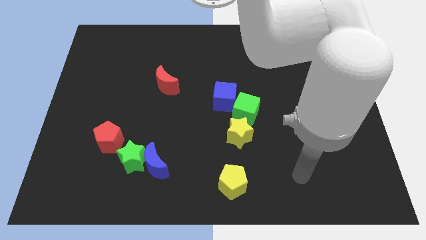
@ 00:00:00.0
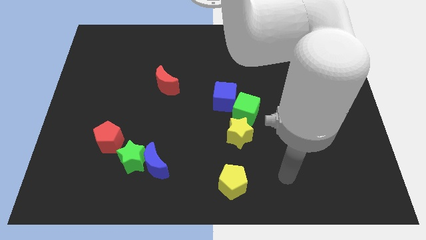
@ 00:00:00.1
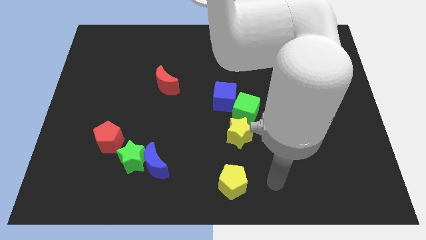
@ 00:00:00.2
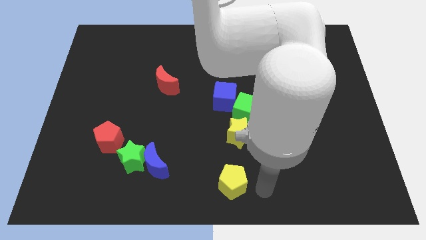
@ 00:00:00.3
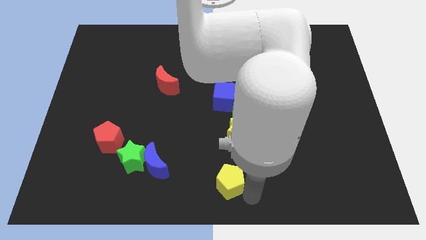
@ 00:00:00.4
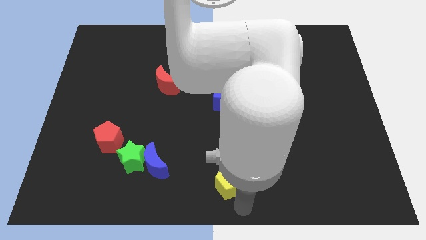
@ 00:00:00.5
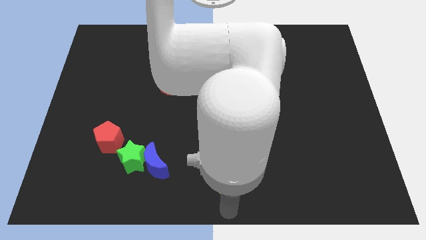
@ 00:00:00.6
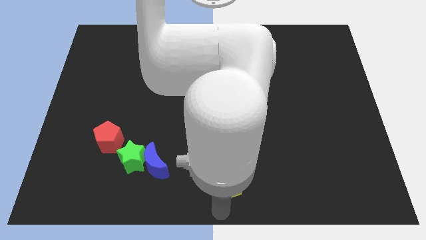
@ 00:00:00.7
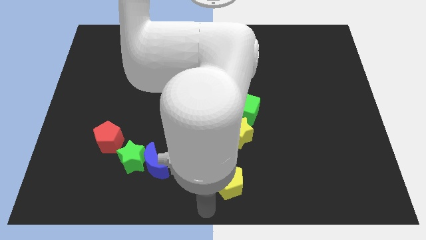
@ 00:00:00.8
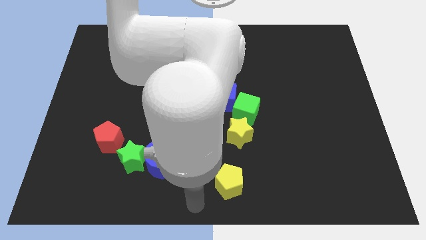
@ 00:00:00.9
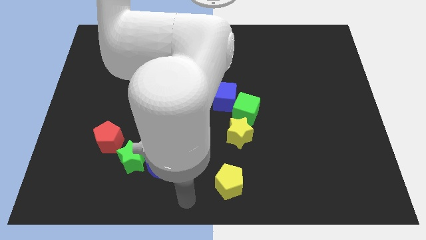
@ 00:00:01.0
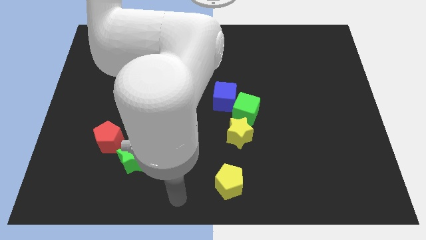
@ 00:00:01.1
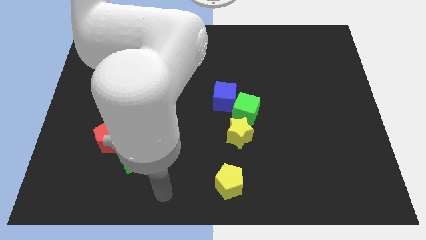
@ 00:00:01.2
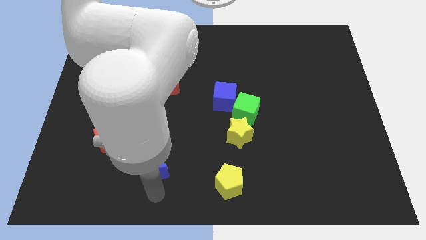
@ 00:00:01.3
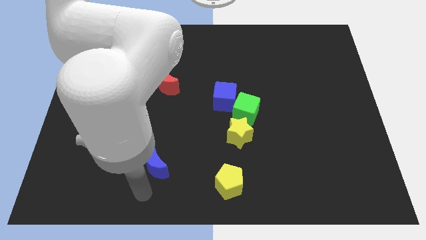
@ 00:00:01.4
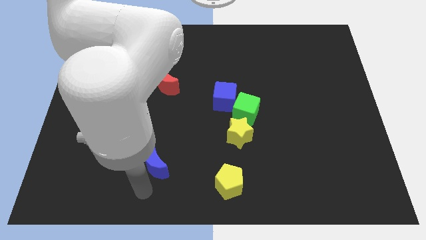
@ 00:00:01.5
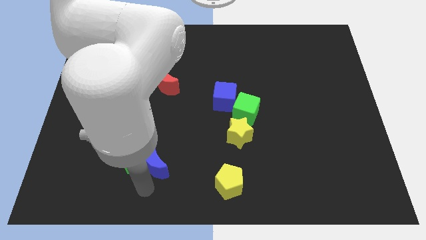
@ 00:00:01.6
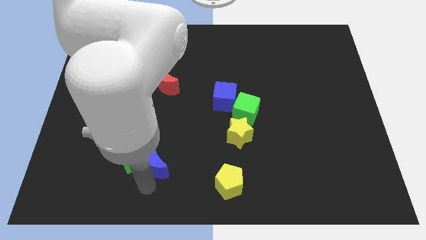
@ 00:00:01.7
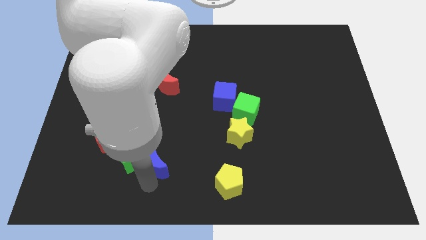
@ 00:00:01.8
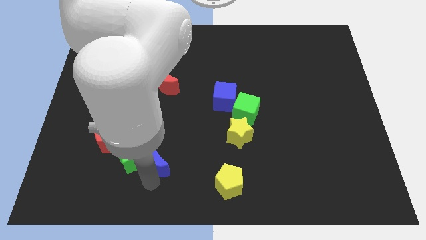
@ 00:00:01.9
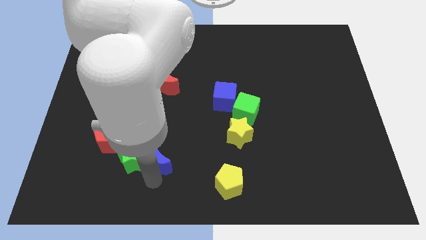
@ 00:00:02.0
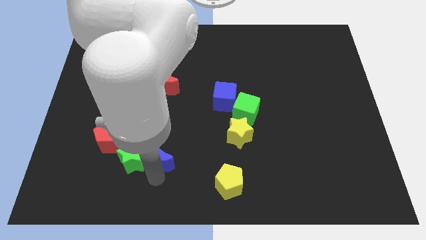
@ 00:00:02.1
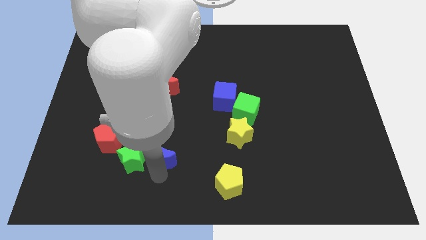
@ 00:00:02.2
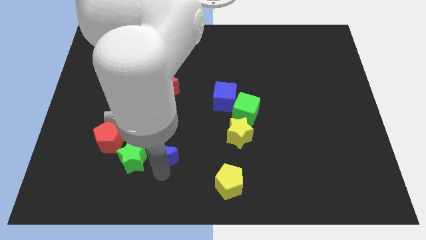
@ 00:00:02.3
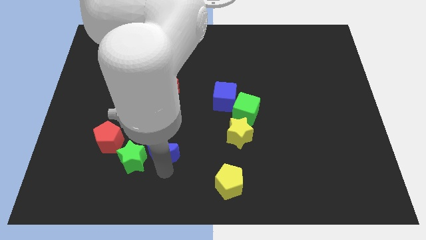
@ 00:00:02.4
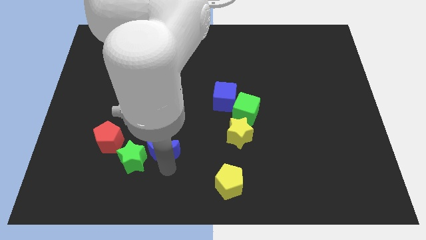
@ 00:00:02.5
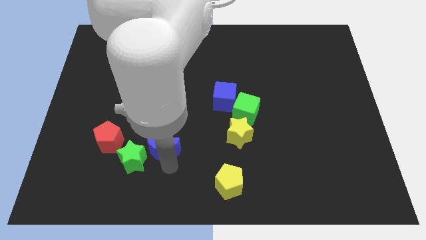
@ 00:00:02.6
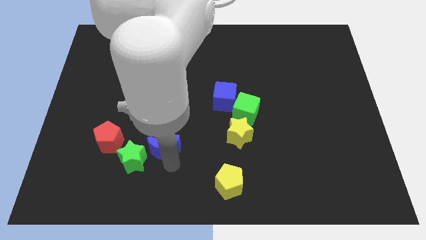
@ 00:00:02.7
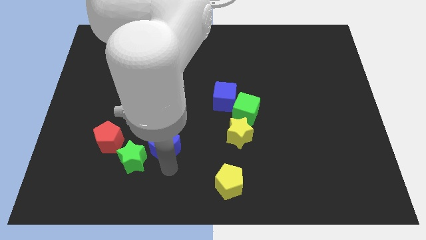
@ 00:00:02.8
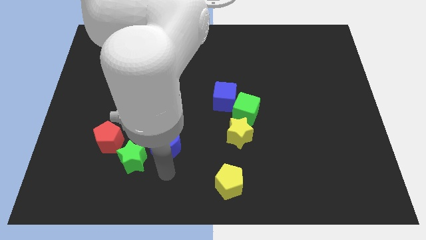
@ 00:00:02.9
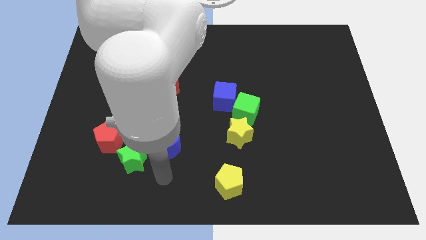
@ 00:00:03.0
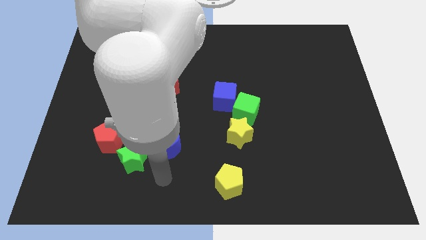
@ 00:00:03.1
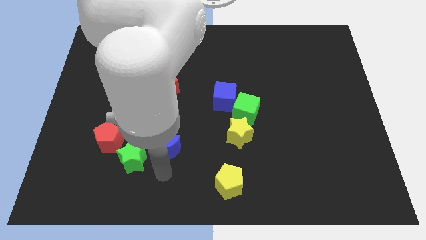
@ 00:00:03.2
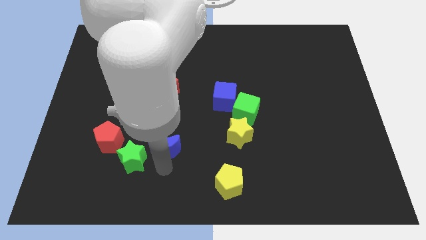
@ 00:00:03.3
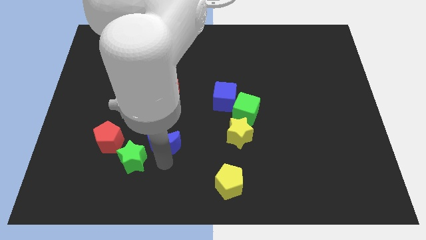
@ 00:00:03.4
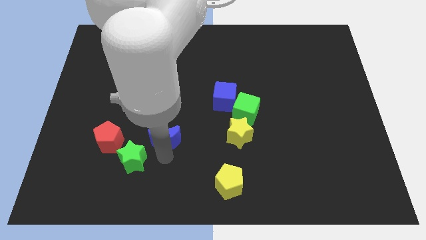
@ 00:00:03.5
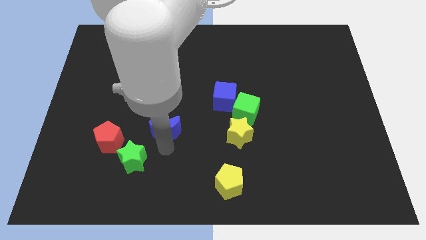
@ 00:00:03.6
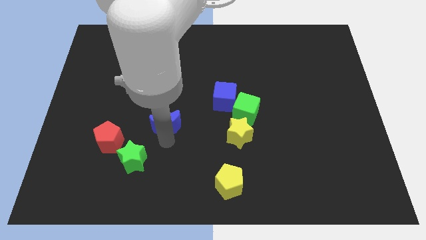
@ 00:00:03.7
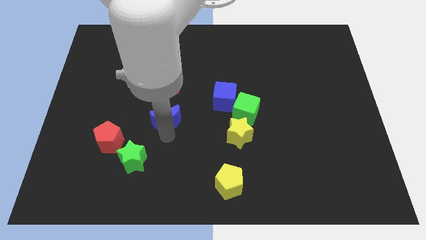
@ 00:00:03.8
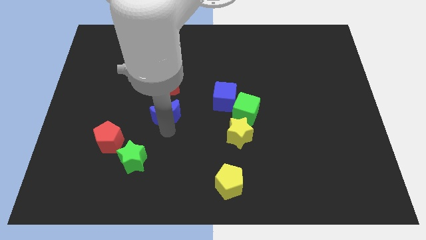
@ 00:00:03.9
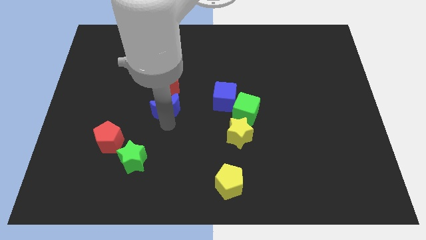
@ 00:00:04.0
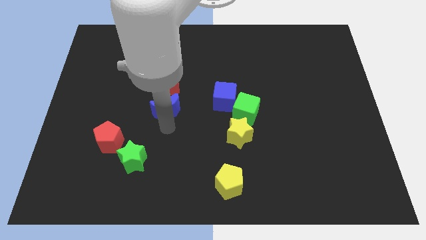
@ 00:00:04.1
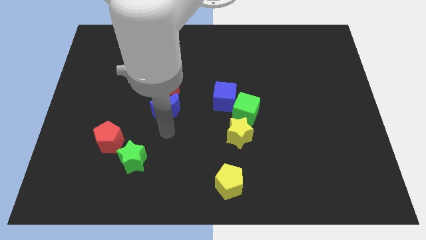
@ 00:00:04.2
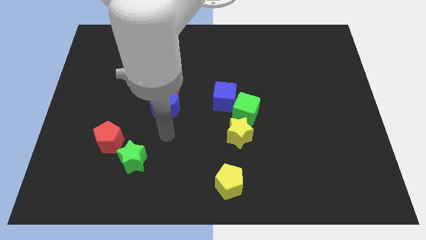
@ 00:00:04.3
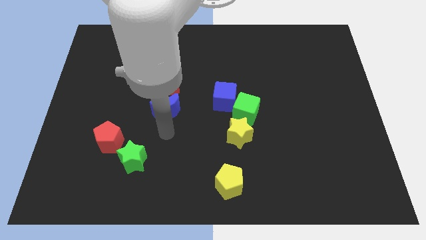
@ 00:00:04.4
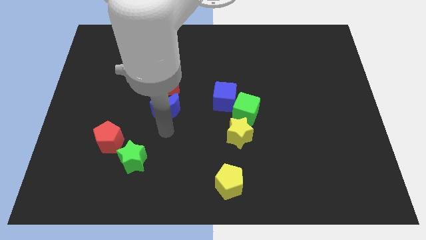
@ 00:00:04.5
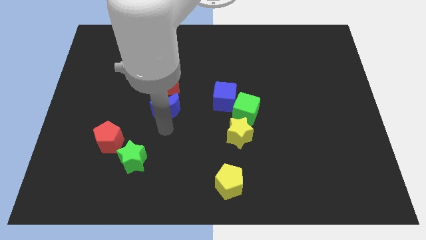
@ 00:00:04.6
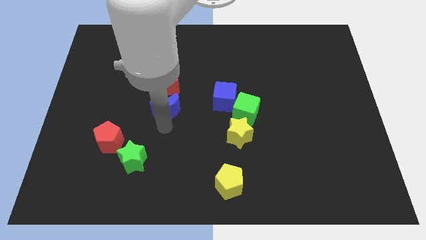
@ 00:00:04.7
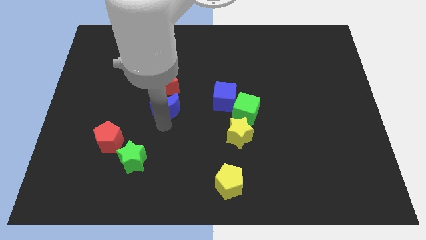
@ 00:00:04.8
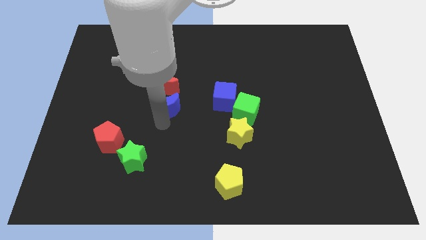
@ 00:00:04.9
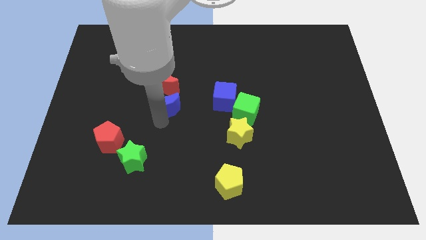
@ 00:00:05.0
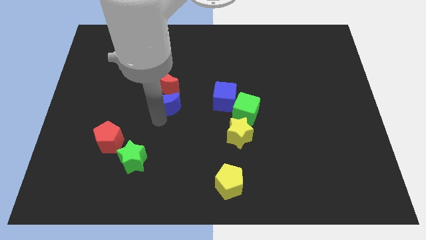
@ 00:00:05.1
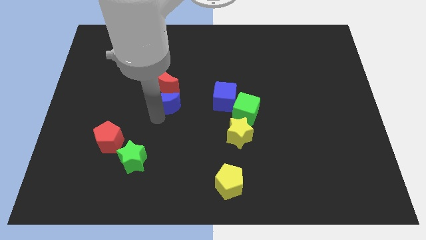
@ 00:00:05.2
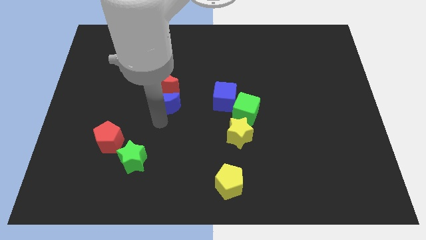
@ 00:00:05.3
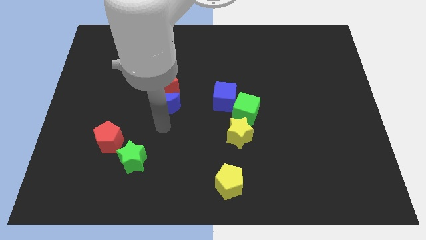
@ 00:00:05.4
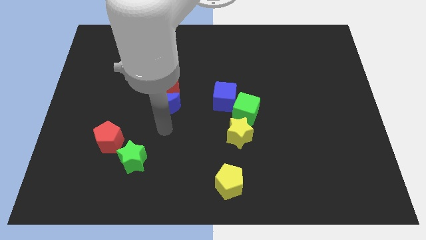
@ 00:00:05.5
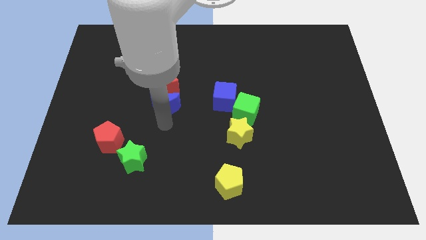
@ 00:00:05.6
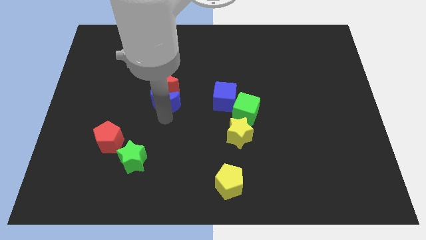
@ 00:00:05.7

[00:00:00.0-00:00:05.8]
put the blue moon close to the red moon
